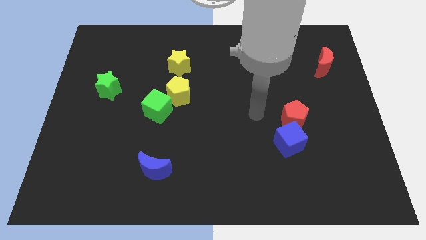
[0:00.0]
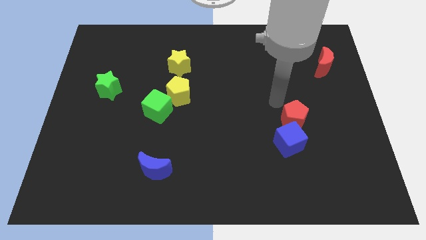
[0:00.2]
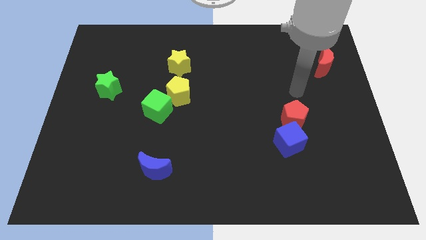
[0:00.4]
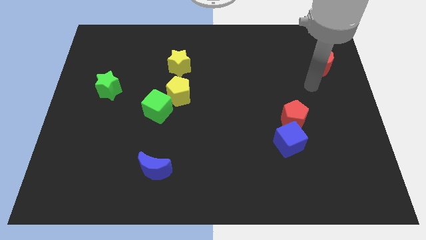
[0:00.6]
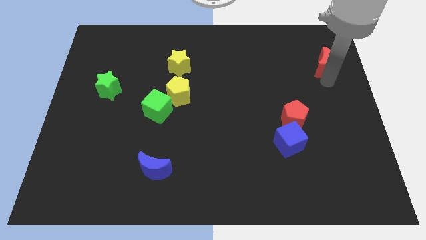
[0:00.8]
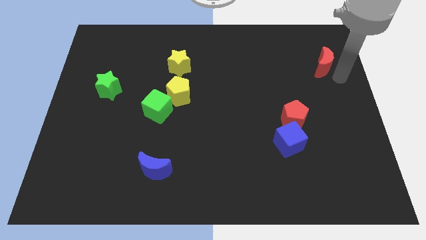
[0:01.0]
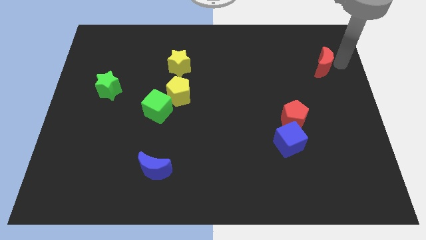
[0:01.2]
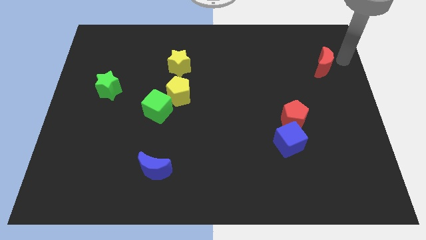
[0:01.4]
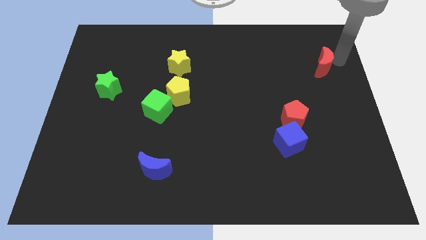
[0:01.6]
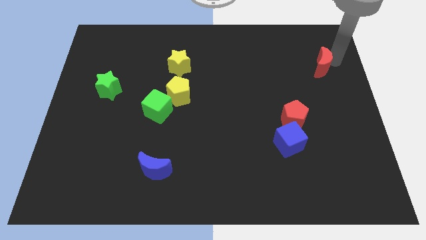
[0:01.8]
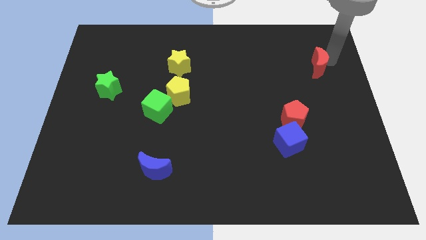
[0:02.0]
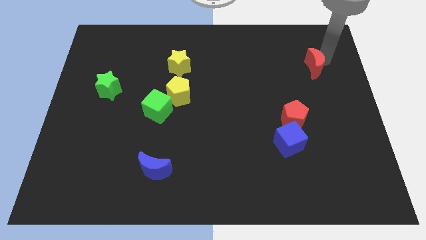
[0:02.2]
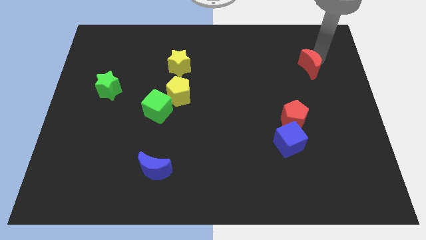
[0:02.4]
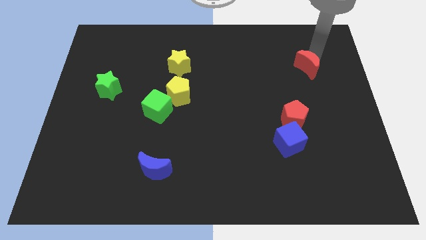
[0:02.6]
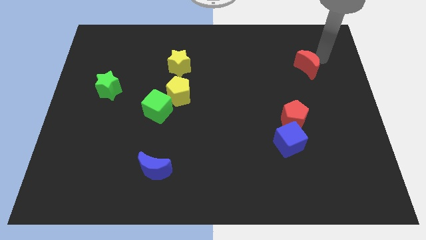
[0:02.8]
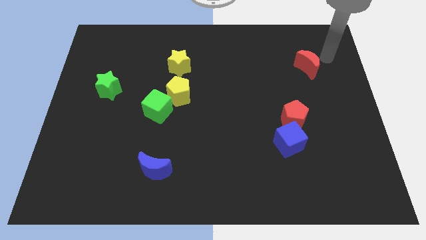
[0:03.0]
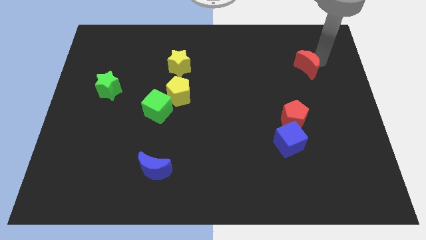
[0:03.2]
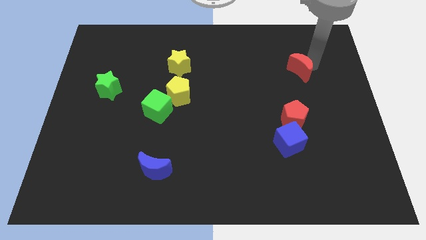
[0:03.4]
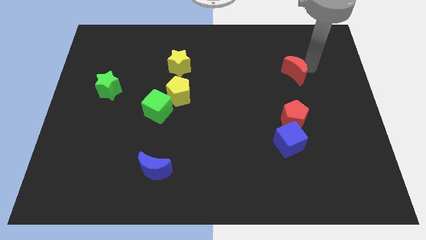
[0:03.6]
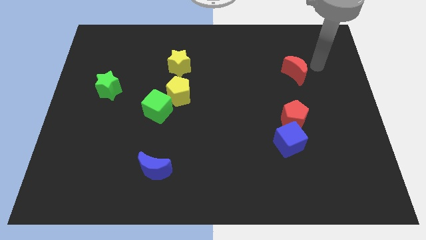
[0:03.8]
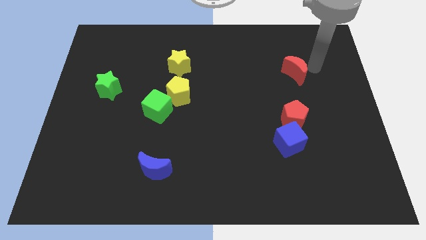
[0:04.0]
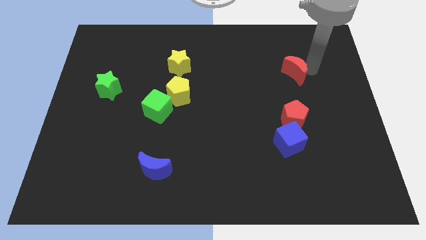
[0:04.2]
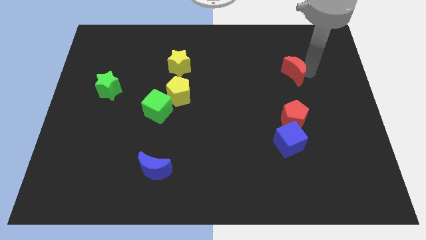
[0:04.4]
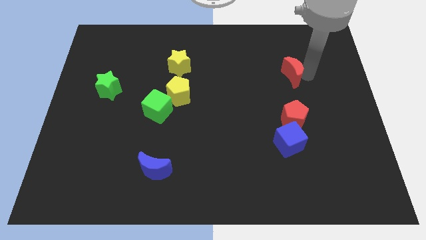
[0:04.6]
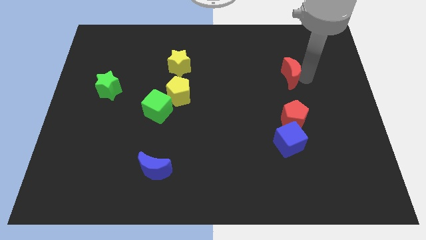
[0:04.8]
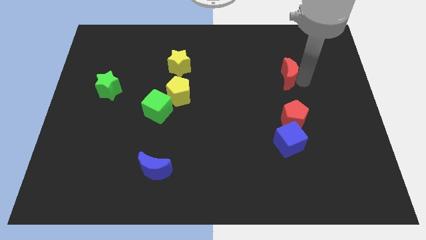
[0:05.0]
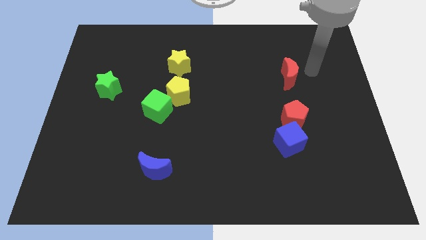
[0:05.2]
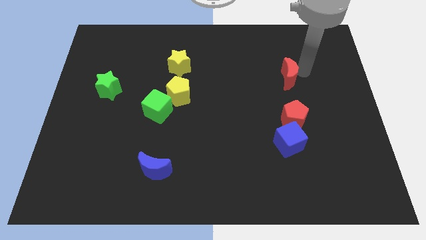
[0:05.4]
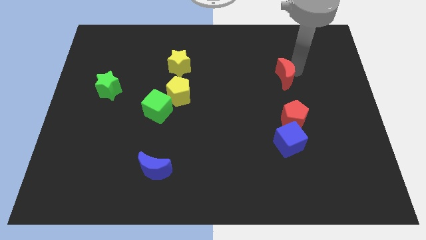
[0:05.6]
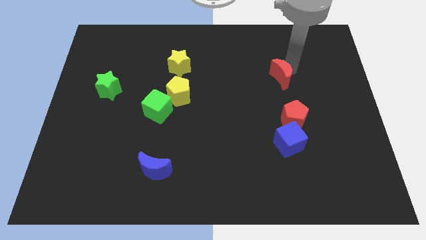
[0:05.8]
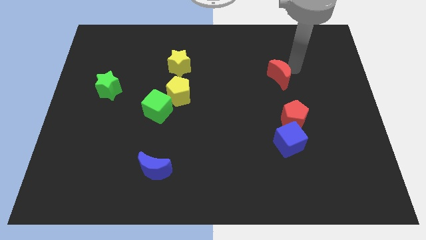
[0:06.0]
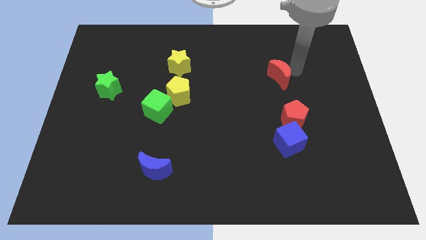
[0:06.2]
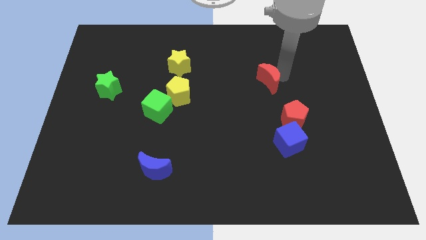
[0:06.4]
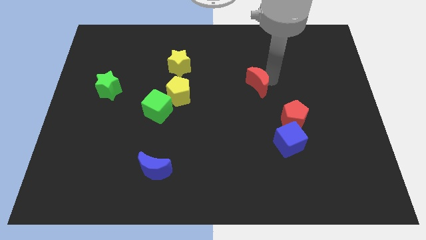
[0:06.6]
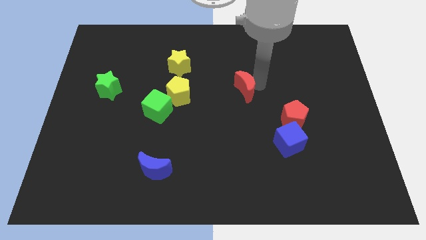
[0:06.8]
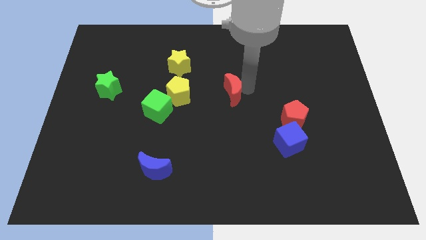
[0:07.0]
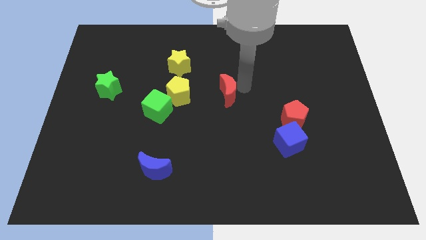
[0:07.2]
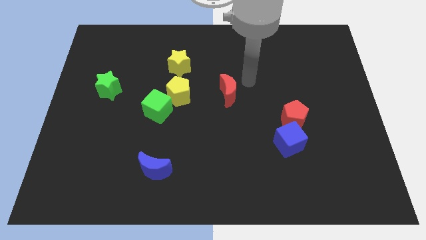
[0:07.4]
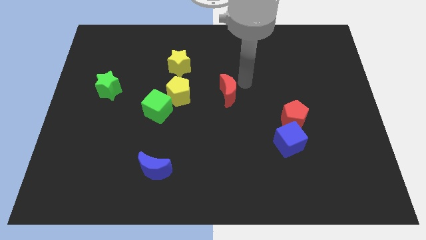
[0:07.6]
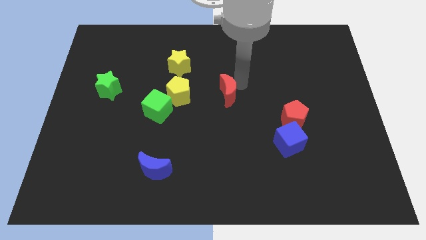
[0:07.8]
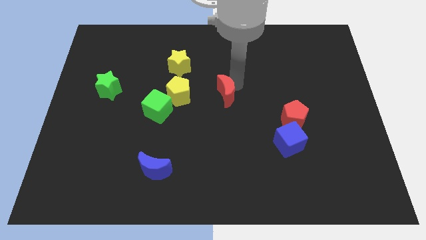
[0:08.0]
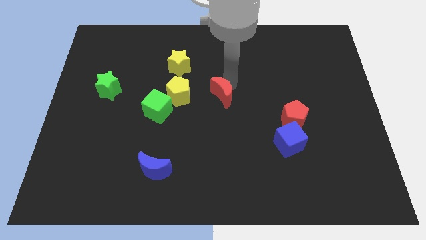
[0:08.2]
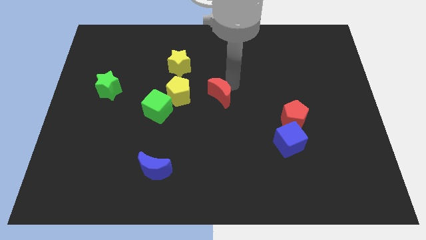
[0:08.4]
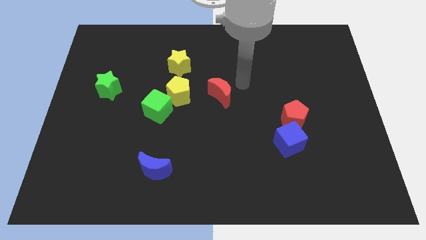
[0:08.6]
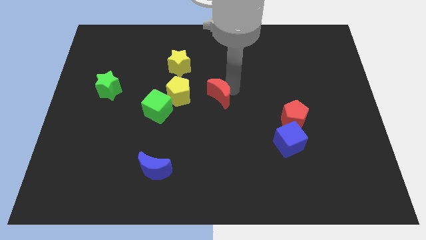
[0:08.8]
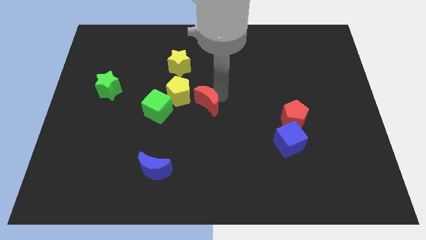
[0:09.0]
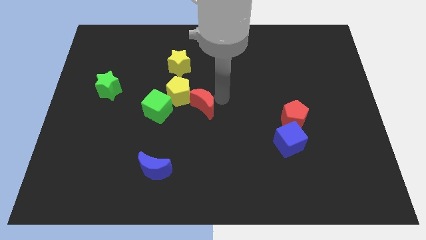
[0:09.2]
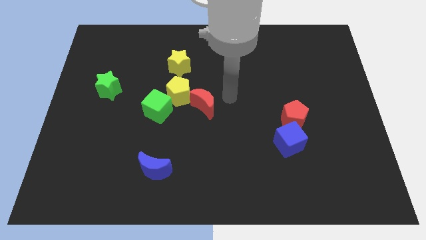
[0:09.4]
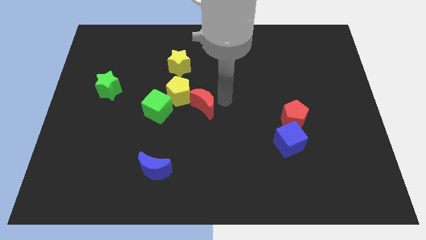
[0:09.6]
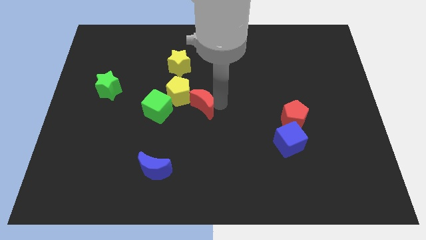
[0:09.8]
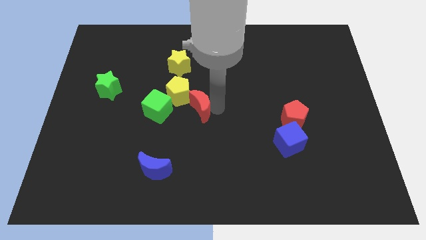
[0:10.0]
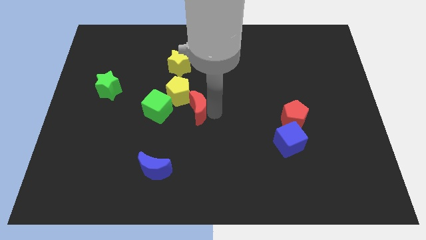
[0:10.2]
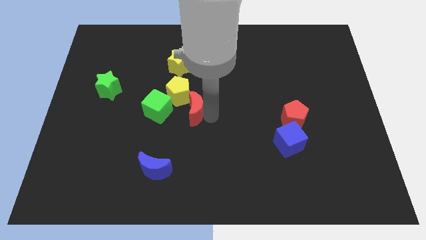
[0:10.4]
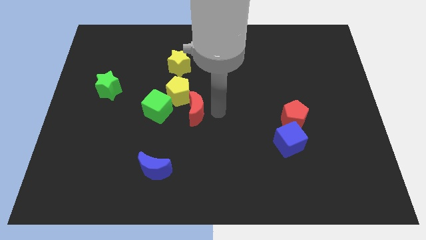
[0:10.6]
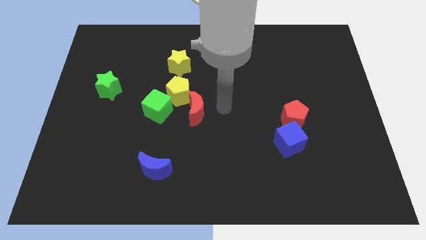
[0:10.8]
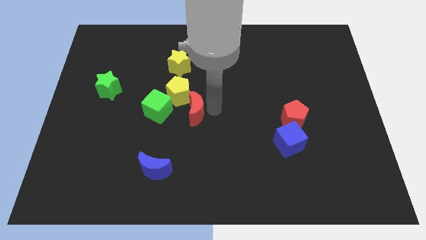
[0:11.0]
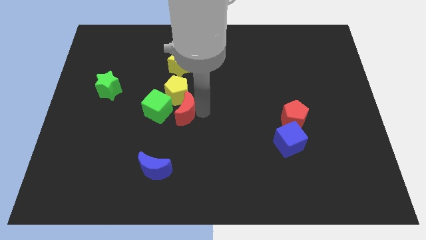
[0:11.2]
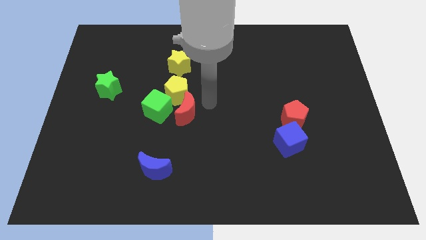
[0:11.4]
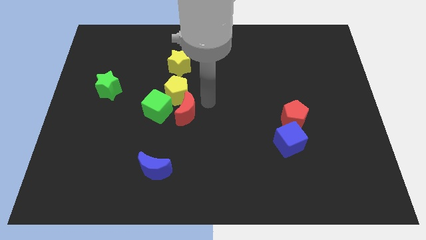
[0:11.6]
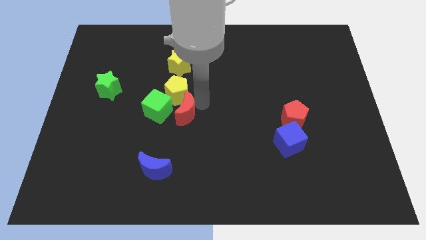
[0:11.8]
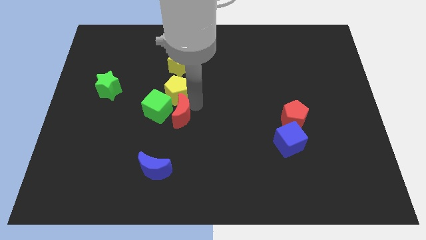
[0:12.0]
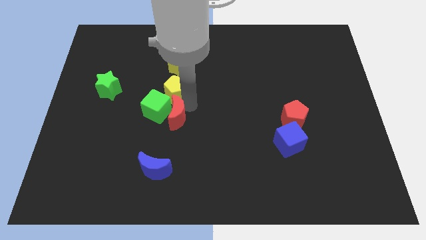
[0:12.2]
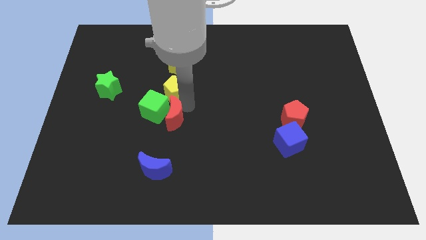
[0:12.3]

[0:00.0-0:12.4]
push the red moon to the bottom left side of the yellow pentagon

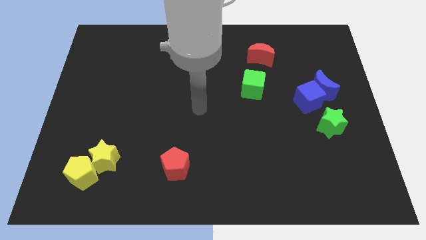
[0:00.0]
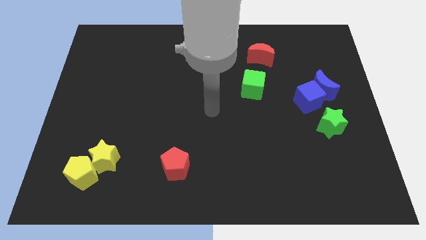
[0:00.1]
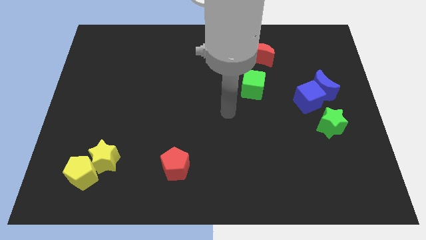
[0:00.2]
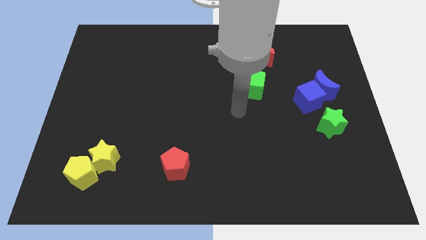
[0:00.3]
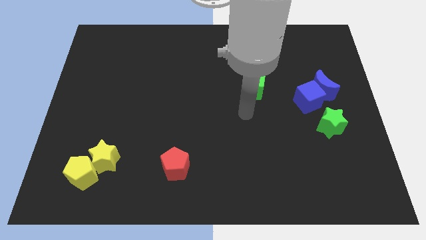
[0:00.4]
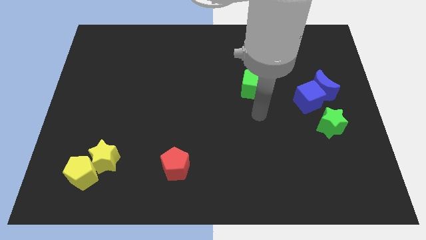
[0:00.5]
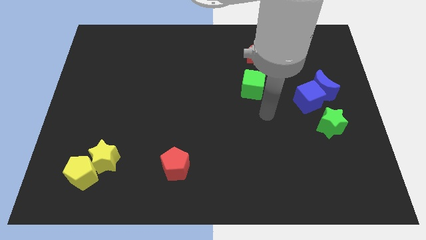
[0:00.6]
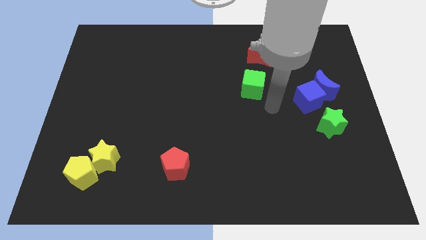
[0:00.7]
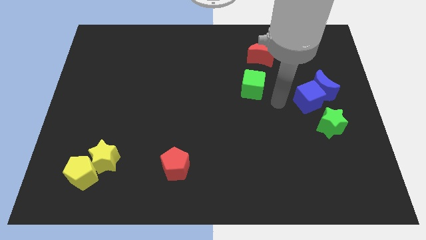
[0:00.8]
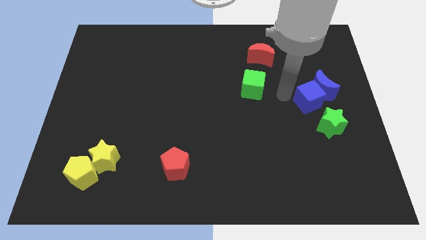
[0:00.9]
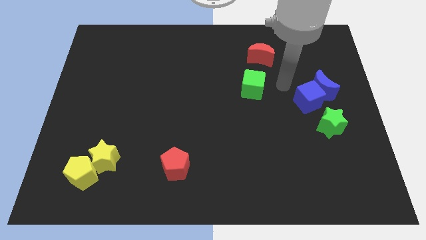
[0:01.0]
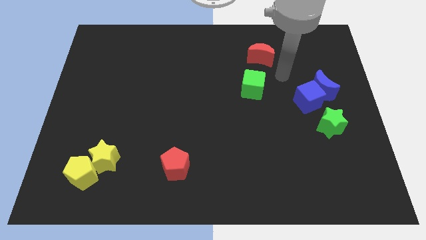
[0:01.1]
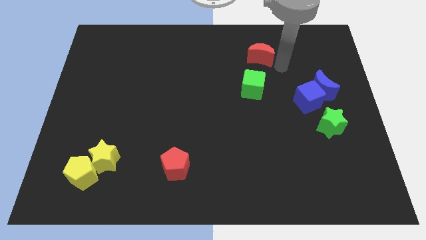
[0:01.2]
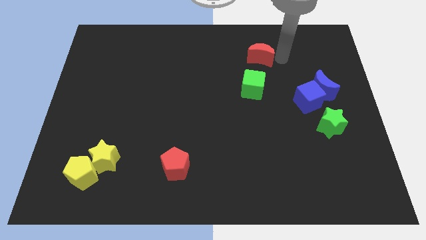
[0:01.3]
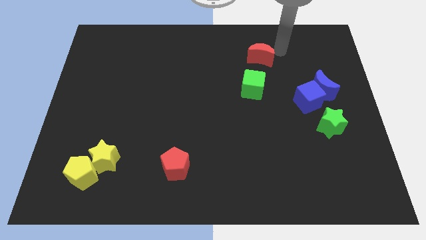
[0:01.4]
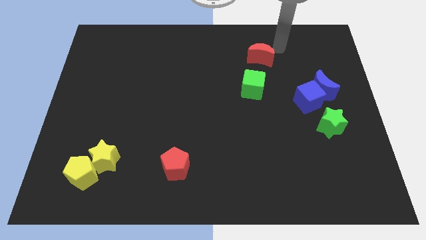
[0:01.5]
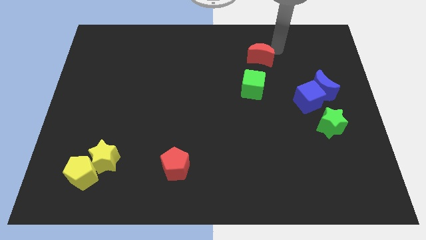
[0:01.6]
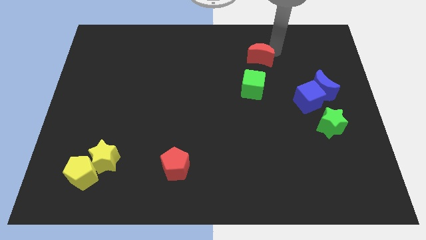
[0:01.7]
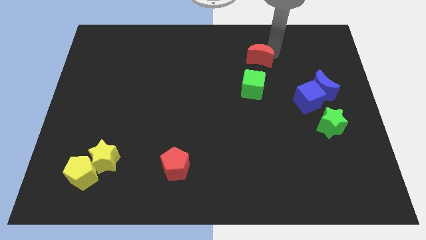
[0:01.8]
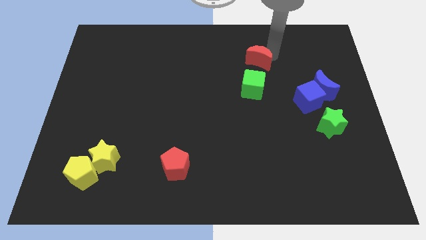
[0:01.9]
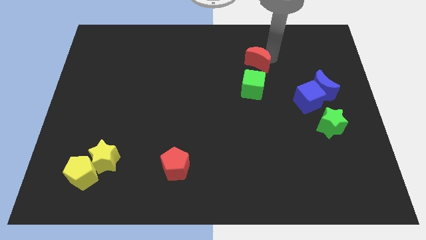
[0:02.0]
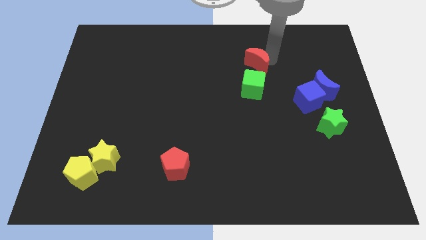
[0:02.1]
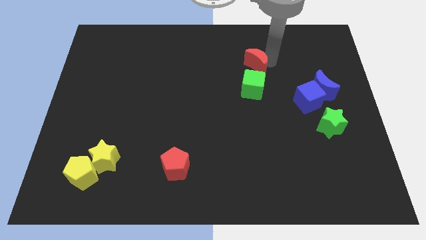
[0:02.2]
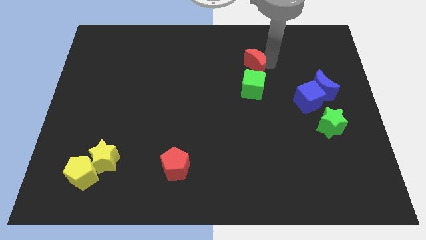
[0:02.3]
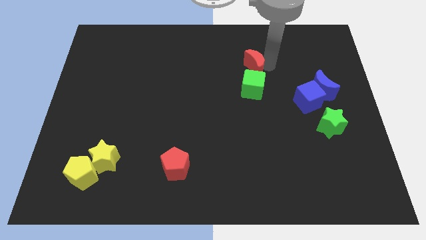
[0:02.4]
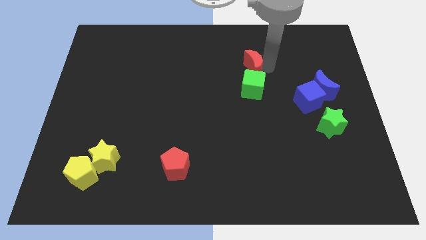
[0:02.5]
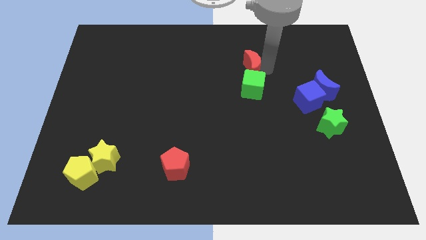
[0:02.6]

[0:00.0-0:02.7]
put the red moon to the top left side of the green cube
